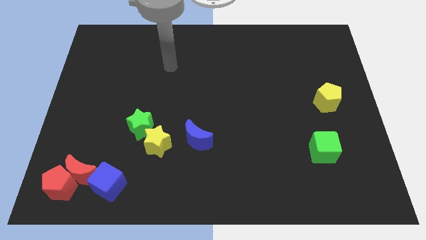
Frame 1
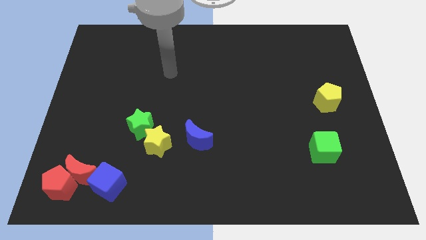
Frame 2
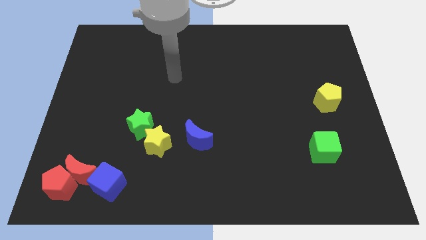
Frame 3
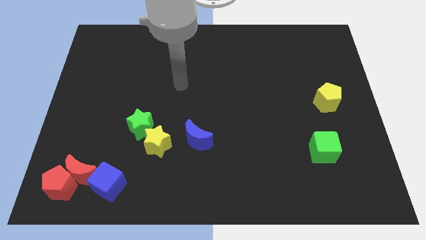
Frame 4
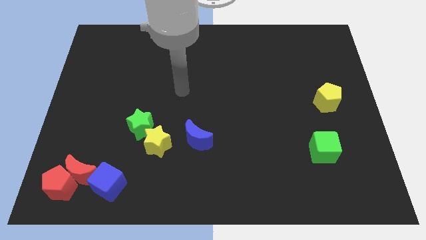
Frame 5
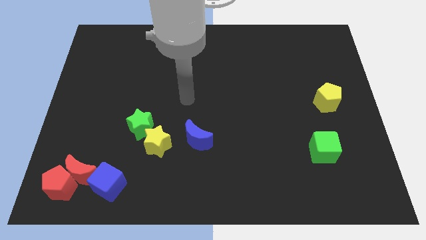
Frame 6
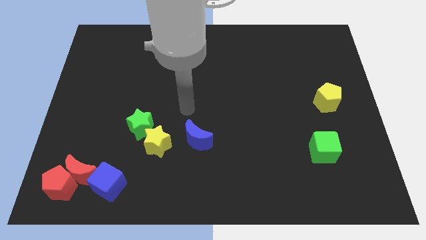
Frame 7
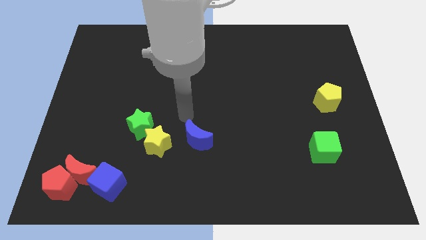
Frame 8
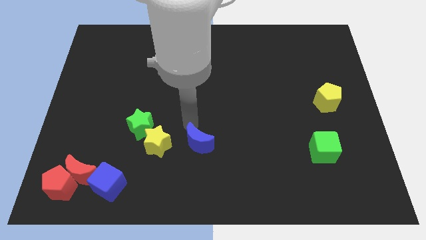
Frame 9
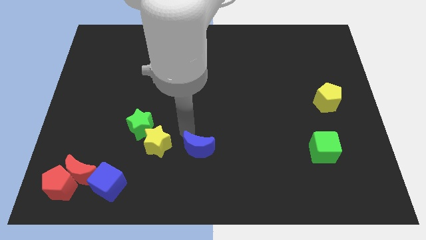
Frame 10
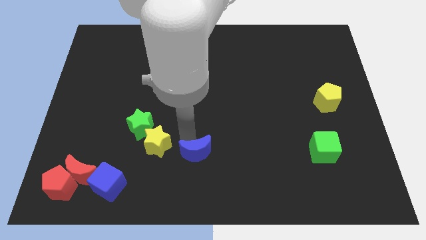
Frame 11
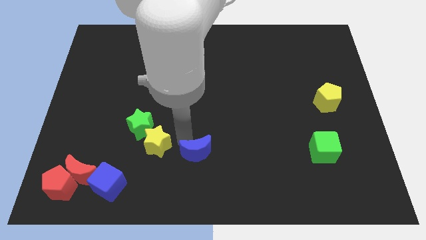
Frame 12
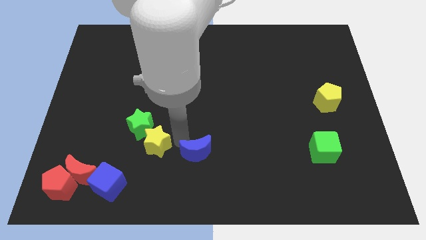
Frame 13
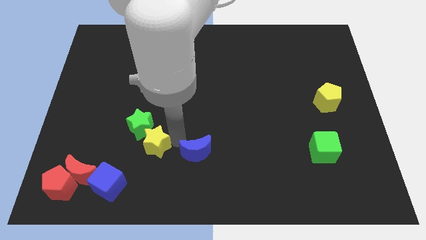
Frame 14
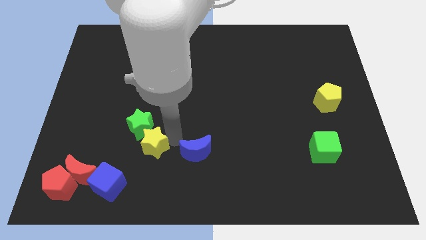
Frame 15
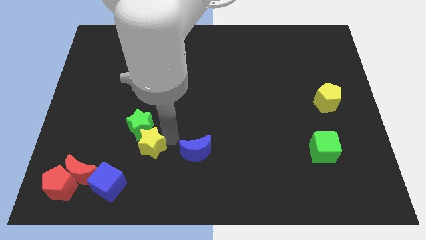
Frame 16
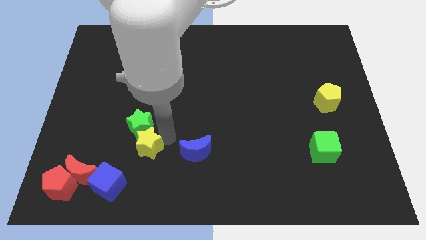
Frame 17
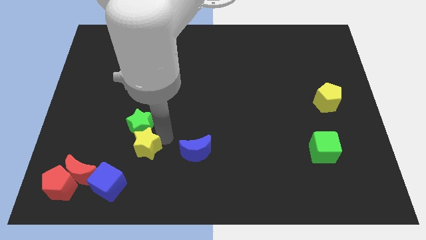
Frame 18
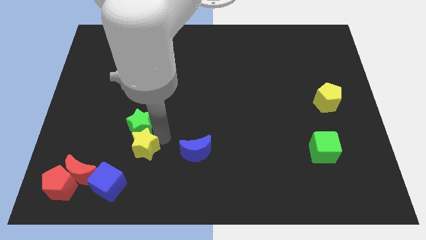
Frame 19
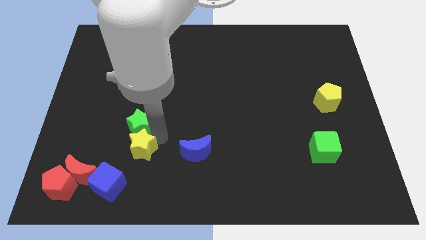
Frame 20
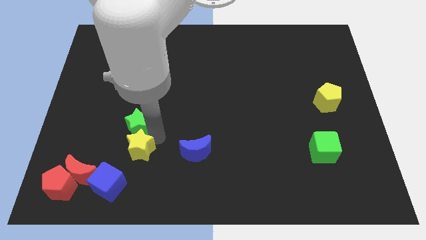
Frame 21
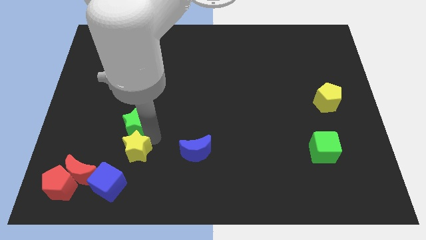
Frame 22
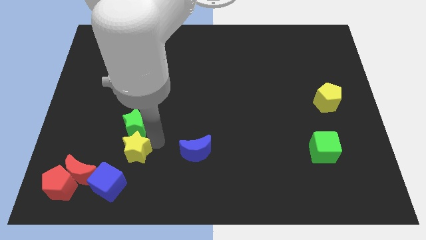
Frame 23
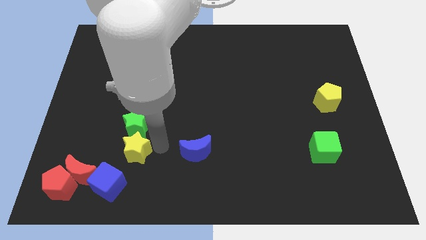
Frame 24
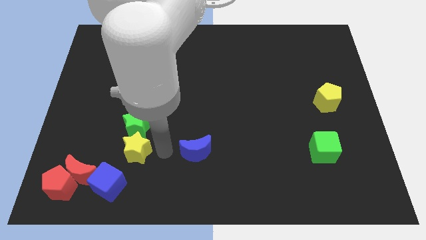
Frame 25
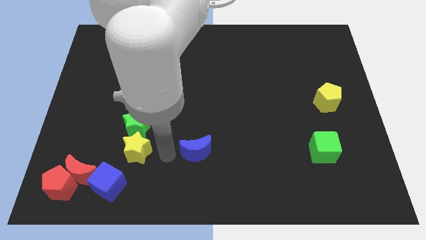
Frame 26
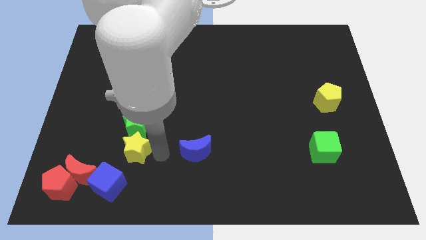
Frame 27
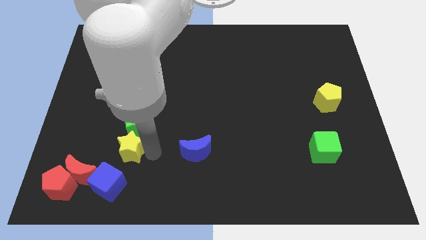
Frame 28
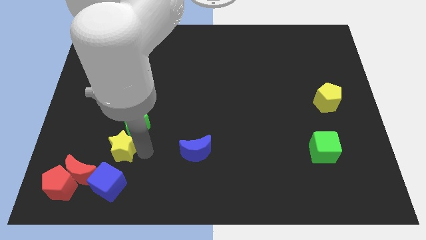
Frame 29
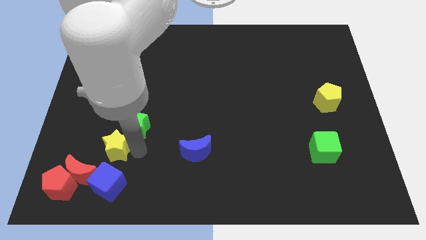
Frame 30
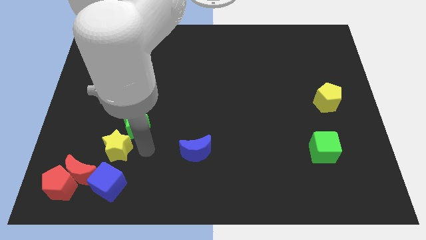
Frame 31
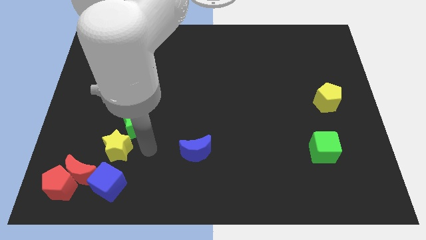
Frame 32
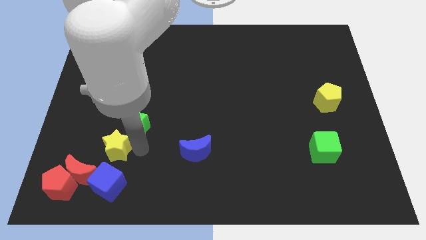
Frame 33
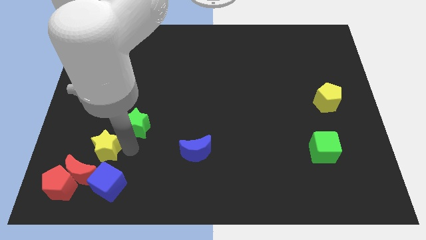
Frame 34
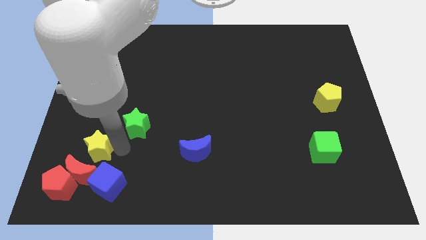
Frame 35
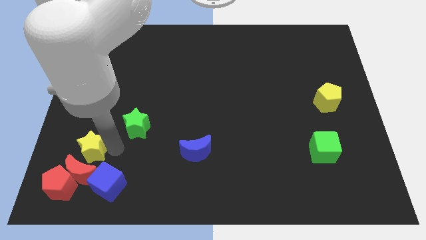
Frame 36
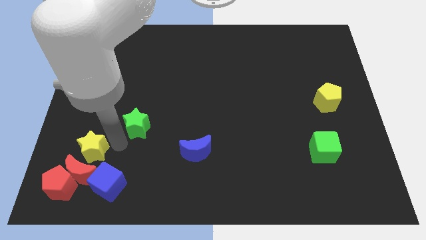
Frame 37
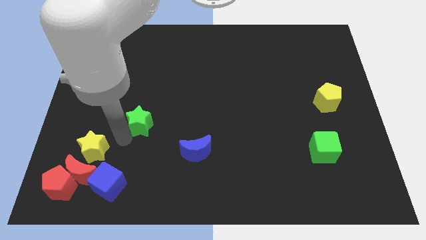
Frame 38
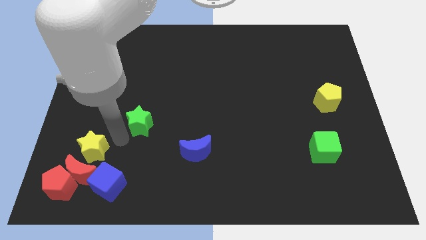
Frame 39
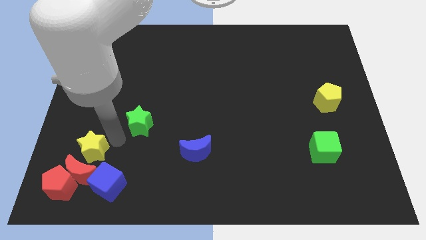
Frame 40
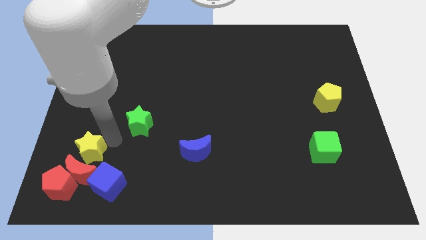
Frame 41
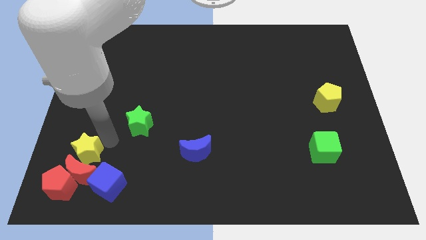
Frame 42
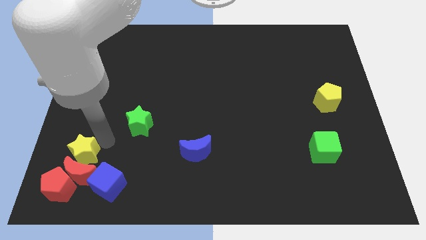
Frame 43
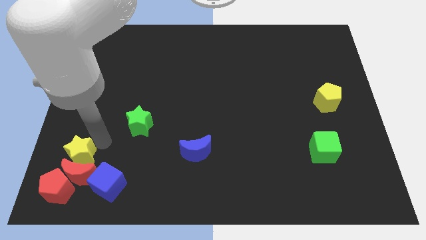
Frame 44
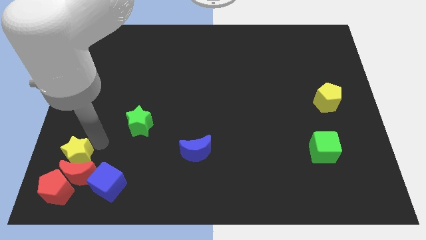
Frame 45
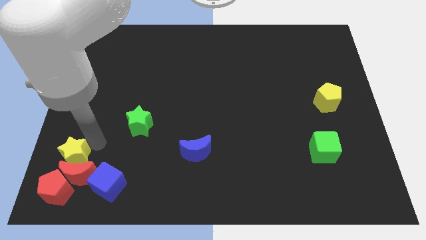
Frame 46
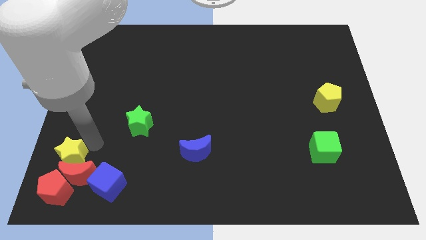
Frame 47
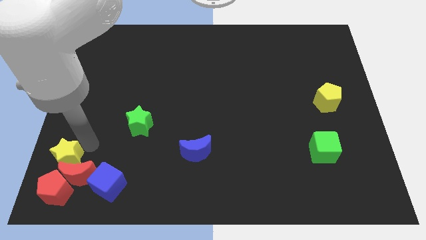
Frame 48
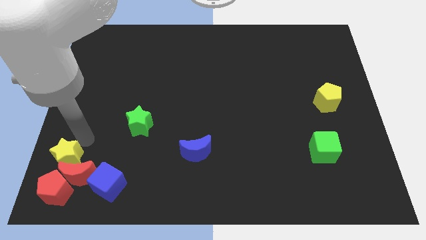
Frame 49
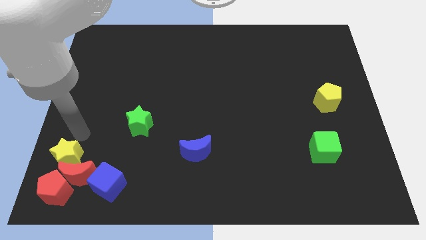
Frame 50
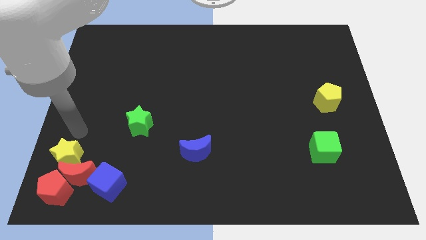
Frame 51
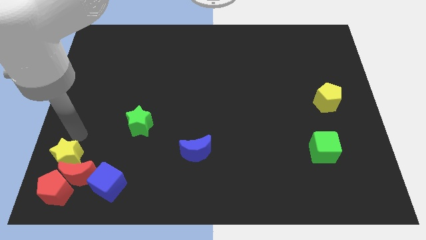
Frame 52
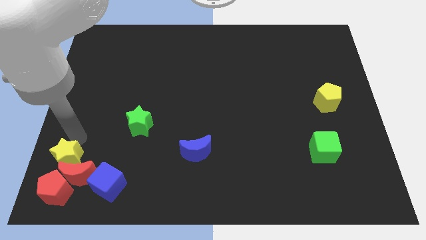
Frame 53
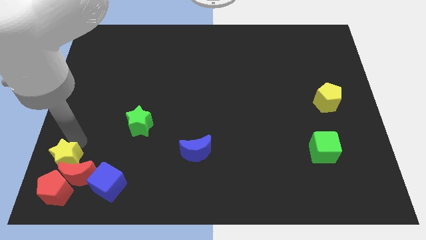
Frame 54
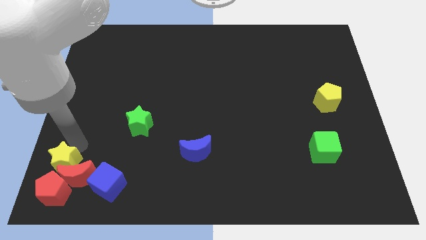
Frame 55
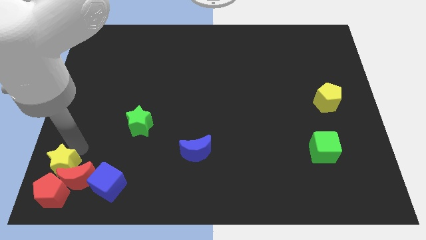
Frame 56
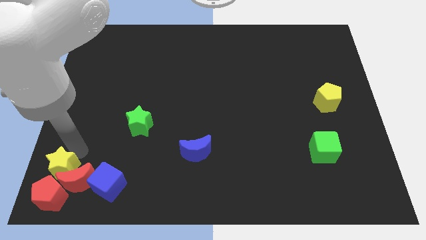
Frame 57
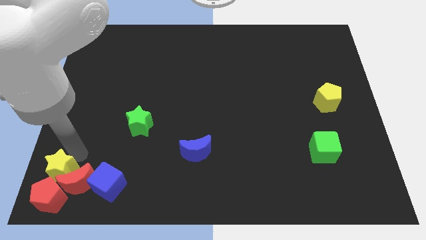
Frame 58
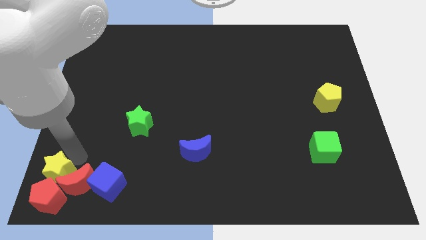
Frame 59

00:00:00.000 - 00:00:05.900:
move the yellow star towards the red pentagon

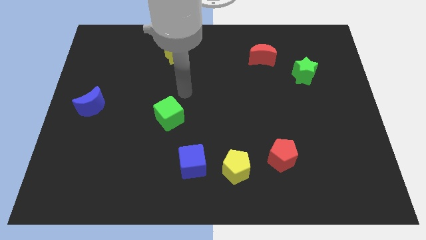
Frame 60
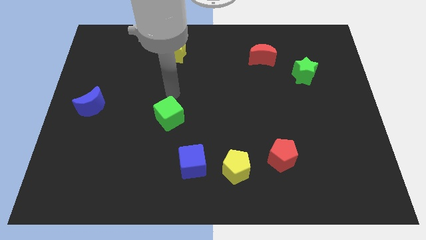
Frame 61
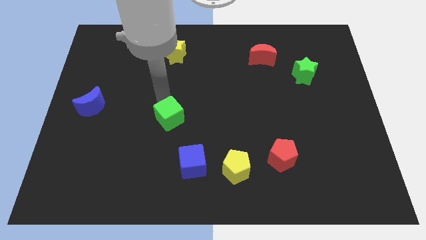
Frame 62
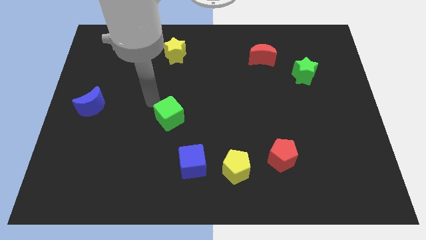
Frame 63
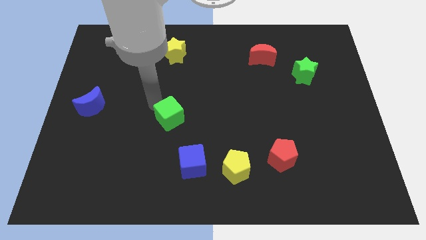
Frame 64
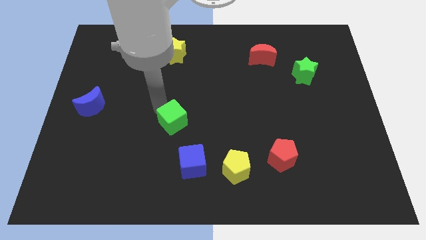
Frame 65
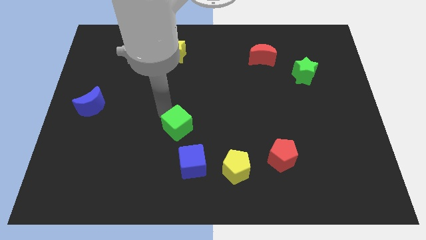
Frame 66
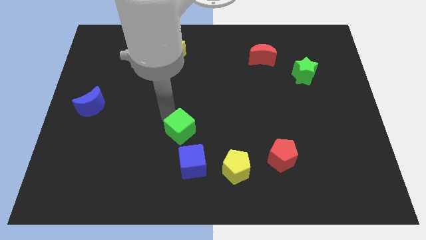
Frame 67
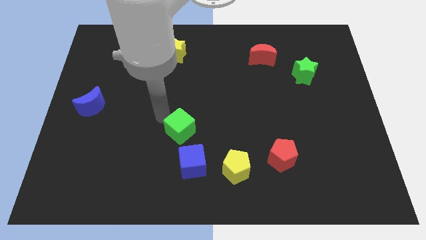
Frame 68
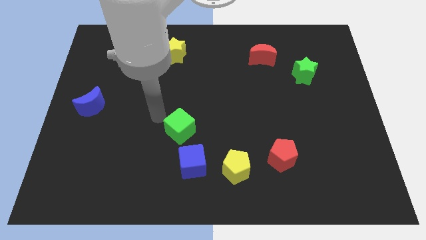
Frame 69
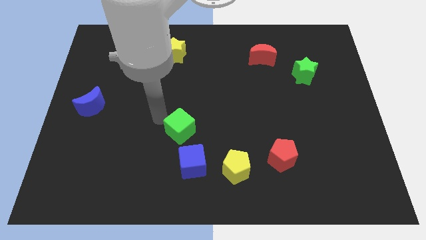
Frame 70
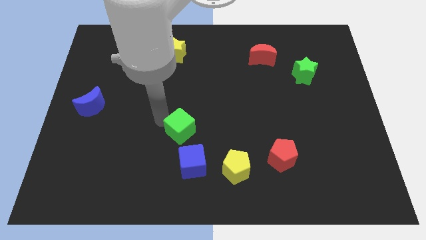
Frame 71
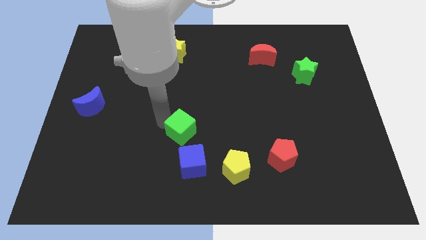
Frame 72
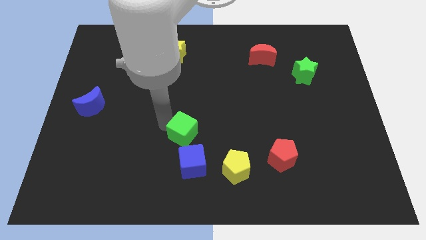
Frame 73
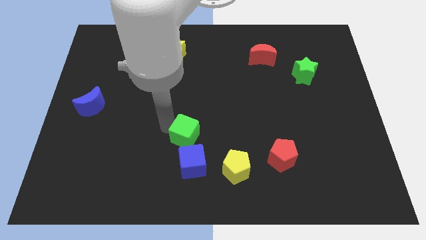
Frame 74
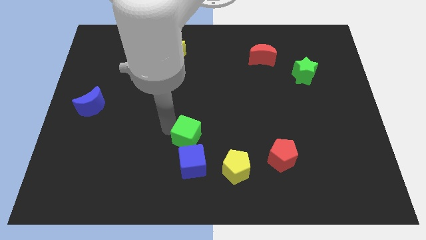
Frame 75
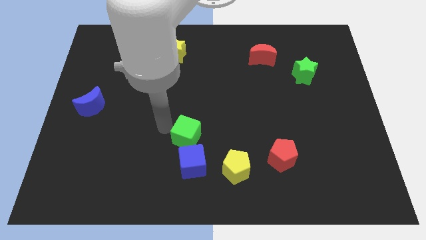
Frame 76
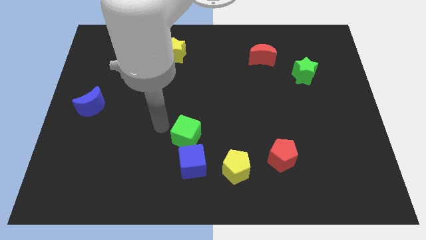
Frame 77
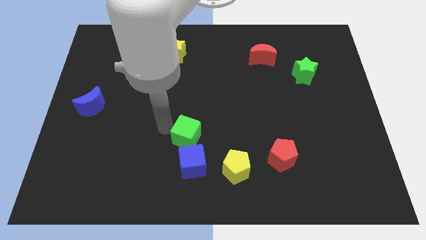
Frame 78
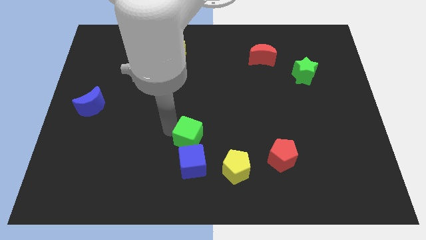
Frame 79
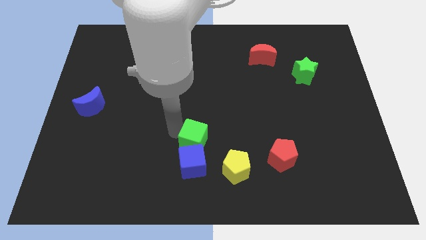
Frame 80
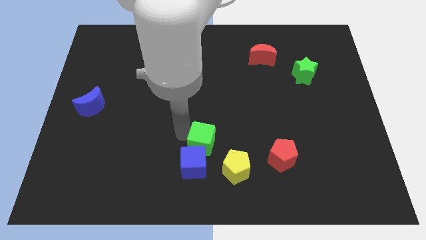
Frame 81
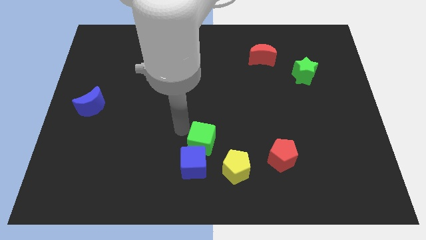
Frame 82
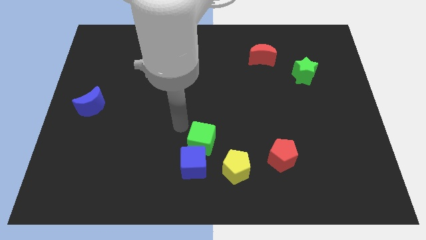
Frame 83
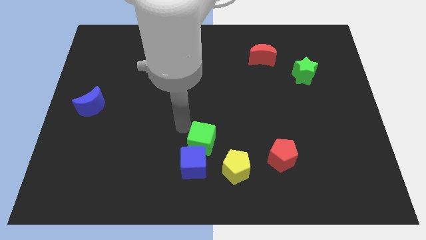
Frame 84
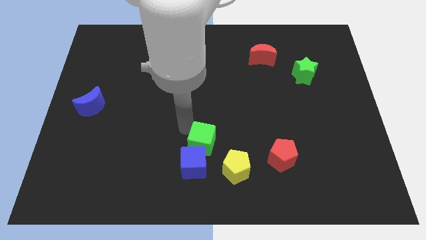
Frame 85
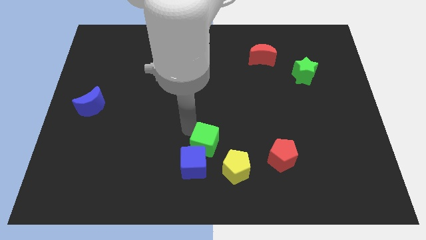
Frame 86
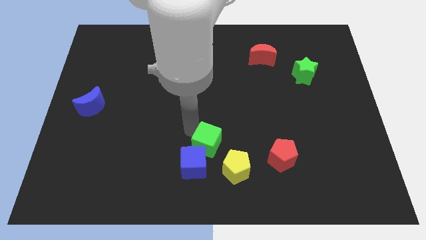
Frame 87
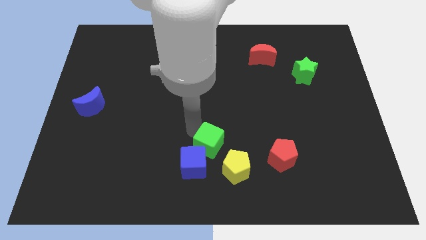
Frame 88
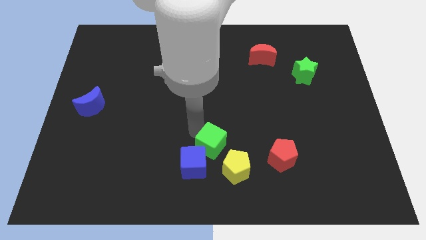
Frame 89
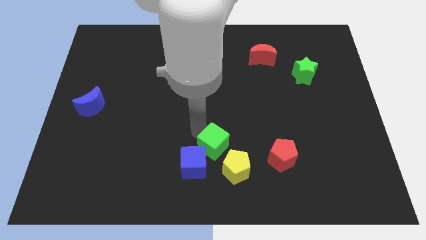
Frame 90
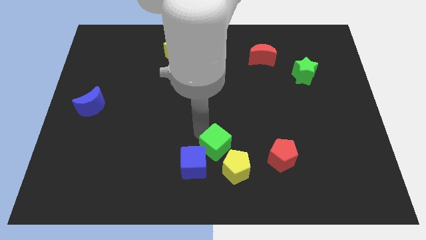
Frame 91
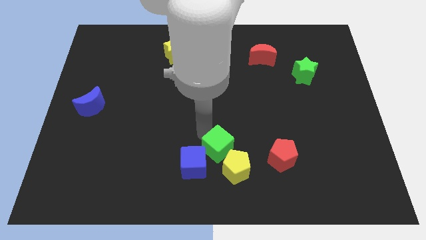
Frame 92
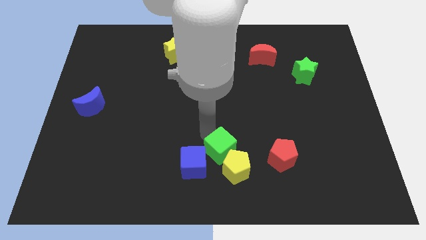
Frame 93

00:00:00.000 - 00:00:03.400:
slide the green cube next to the yellow pentagon
